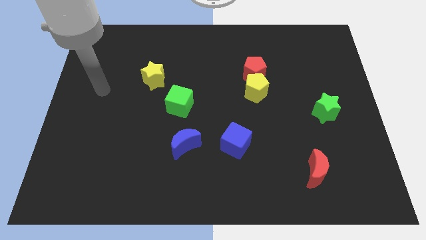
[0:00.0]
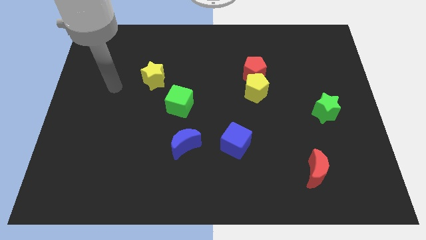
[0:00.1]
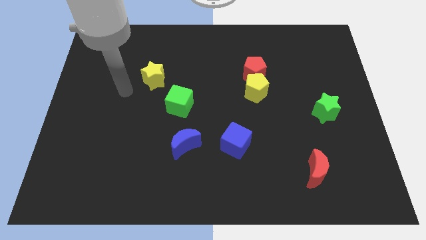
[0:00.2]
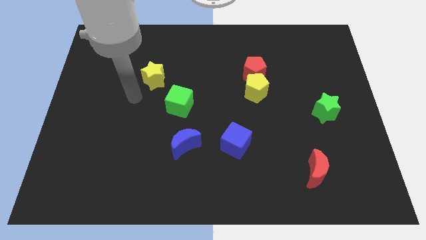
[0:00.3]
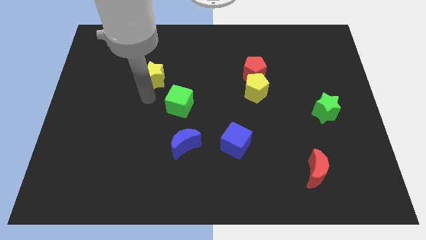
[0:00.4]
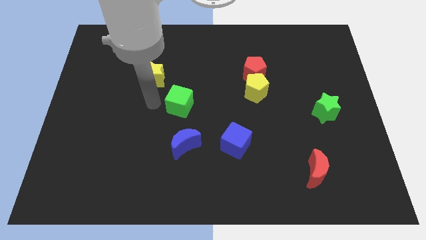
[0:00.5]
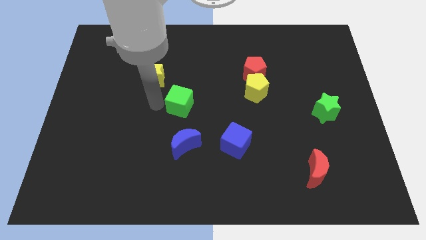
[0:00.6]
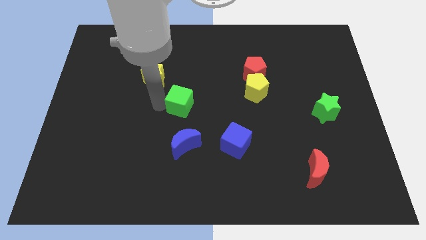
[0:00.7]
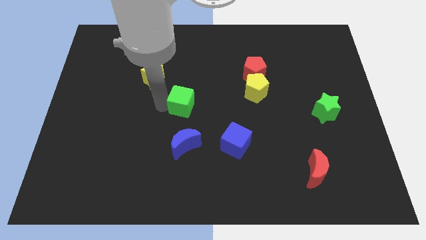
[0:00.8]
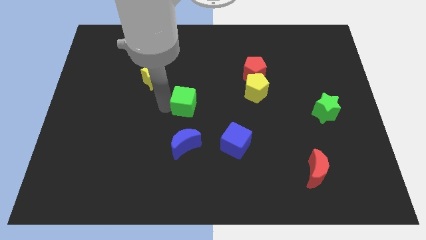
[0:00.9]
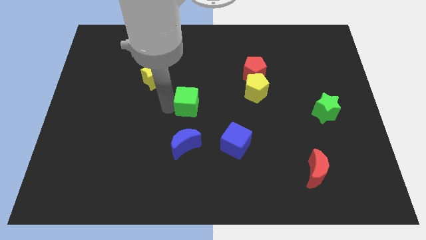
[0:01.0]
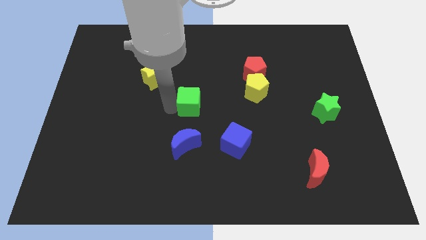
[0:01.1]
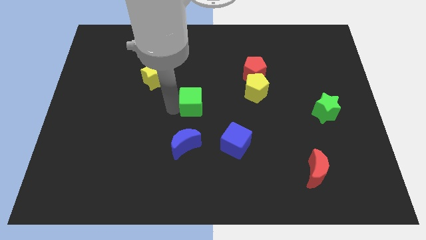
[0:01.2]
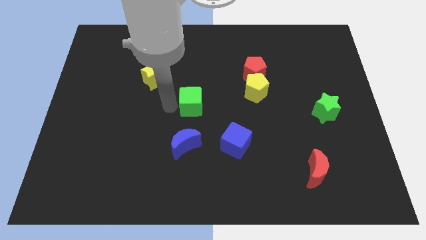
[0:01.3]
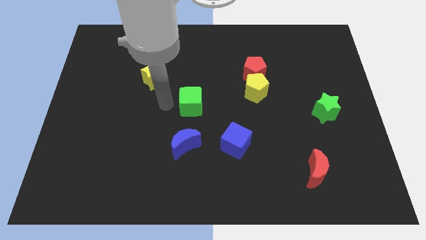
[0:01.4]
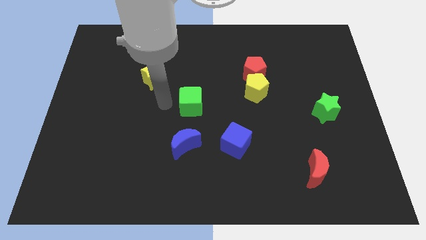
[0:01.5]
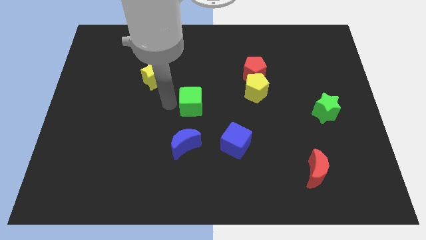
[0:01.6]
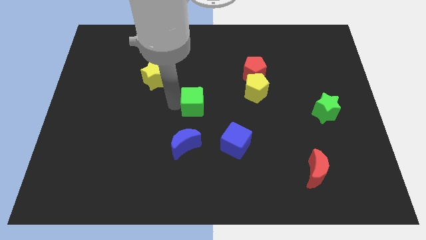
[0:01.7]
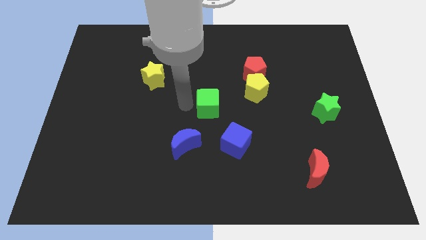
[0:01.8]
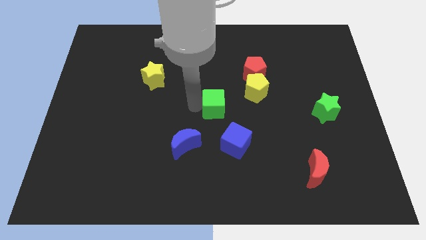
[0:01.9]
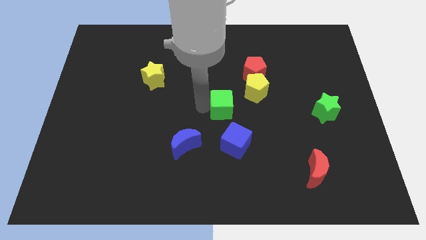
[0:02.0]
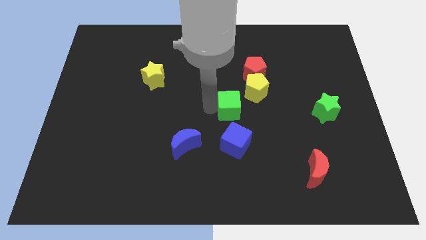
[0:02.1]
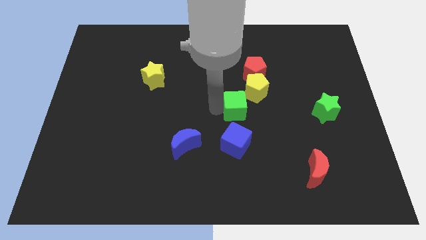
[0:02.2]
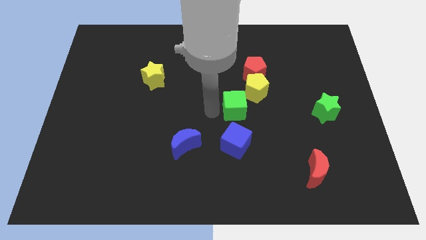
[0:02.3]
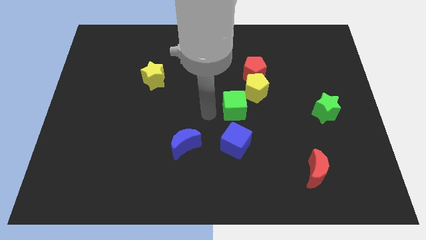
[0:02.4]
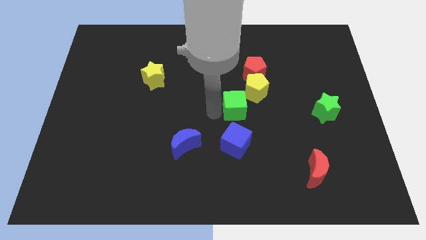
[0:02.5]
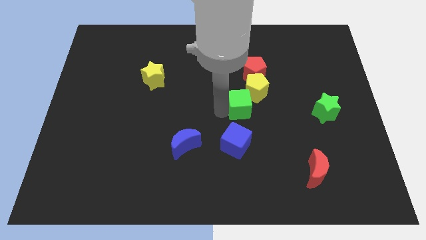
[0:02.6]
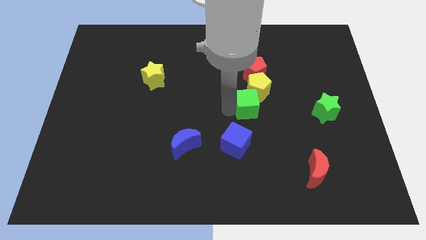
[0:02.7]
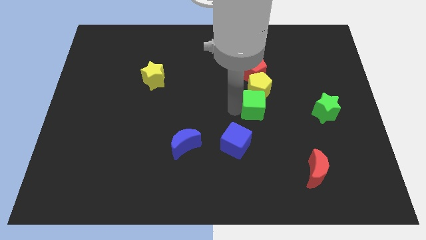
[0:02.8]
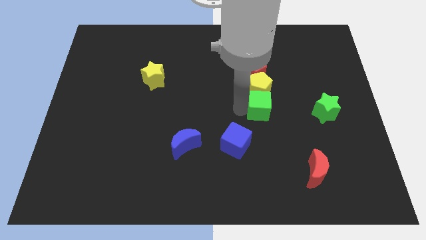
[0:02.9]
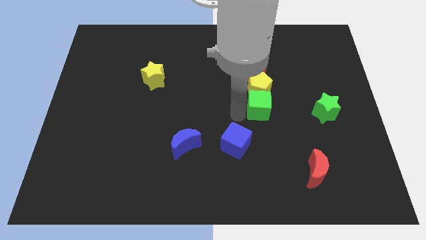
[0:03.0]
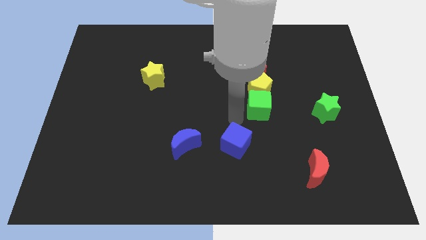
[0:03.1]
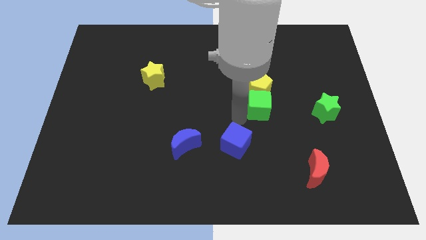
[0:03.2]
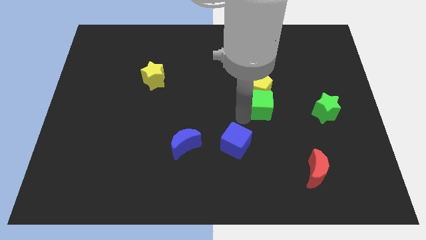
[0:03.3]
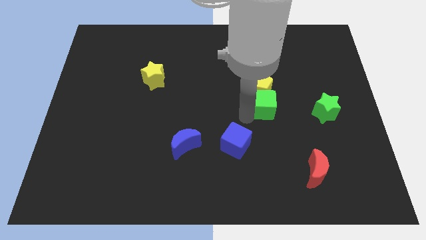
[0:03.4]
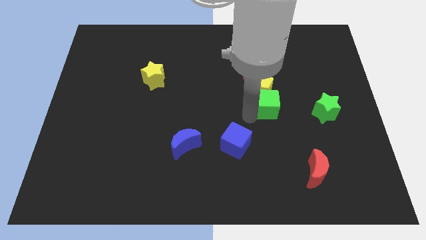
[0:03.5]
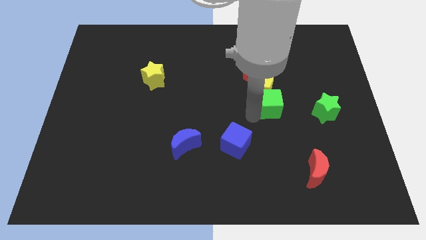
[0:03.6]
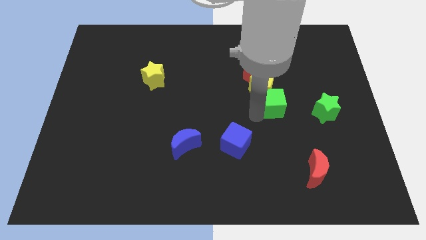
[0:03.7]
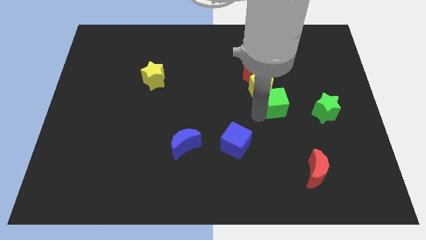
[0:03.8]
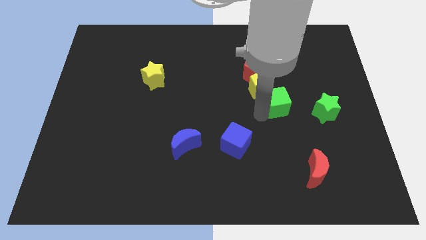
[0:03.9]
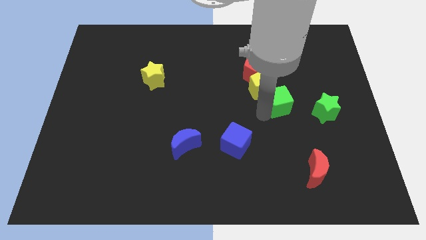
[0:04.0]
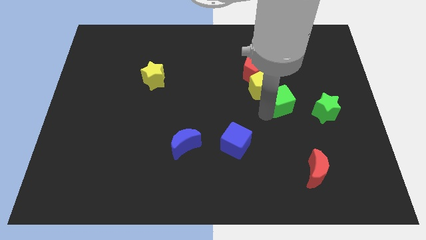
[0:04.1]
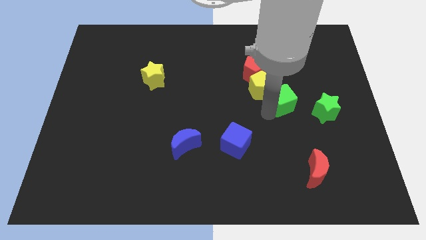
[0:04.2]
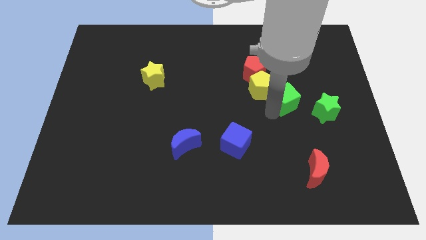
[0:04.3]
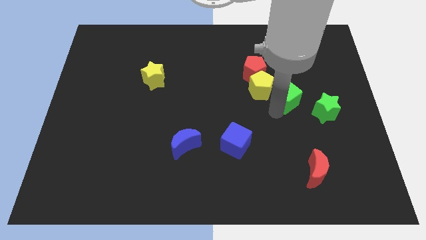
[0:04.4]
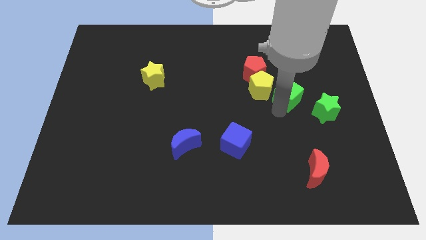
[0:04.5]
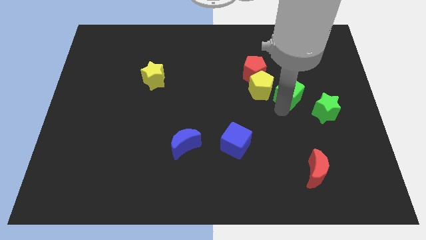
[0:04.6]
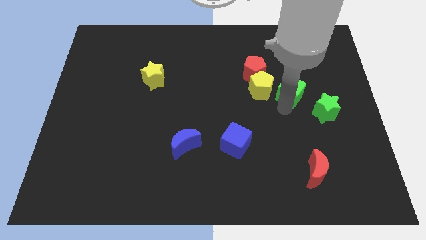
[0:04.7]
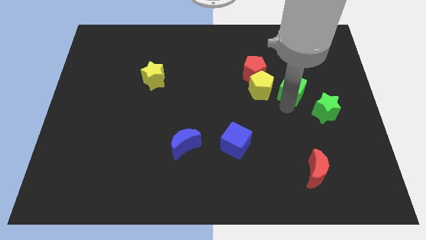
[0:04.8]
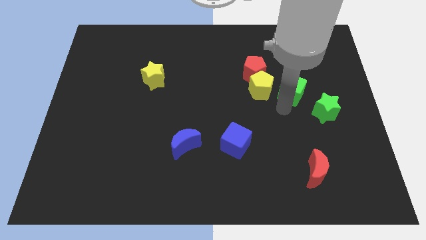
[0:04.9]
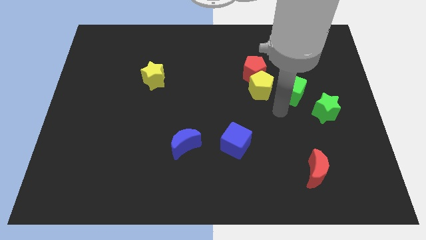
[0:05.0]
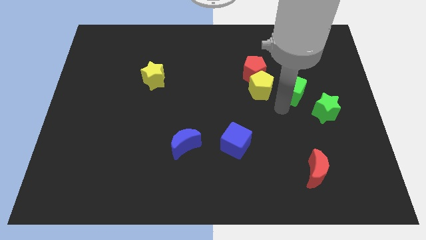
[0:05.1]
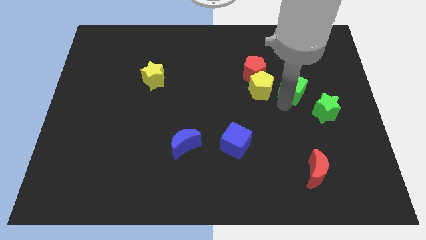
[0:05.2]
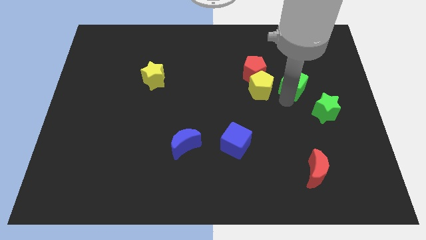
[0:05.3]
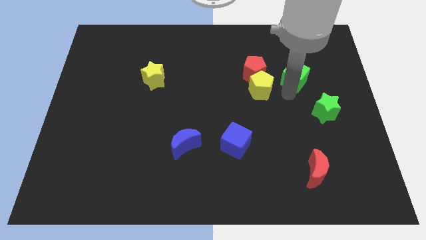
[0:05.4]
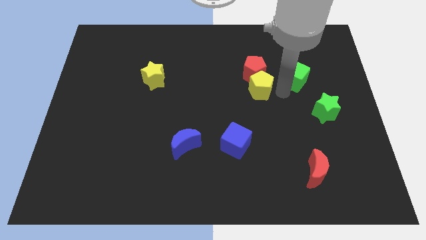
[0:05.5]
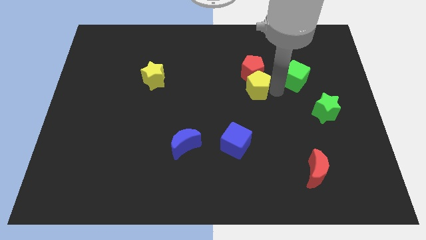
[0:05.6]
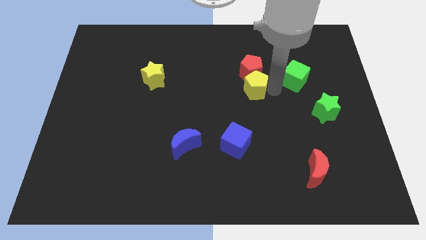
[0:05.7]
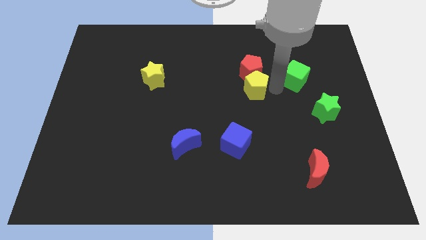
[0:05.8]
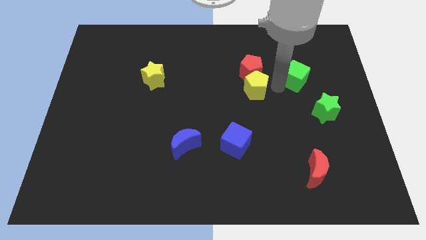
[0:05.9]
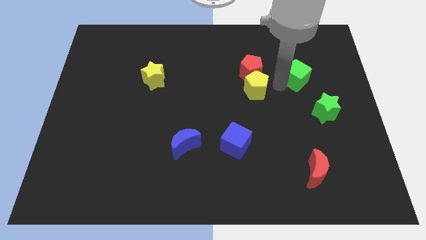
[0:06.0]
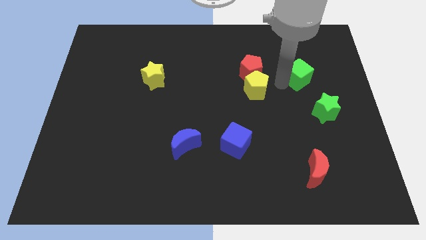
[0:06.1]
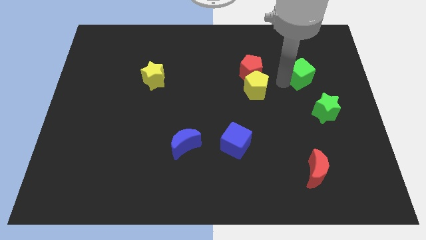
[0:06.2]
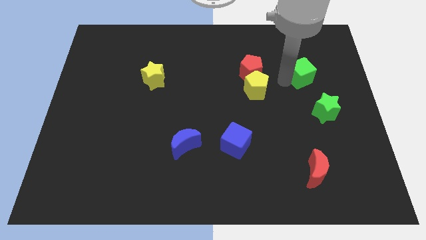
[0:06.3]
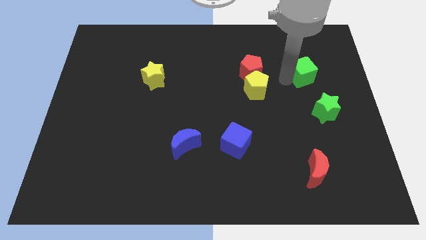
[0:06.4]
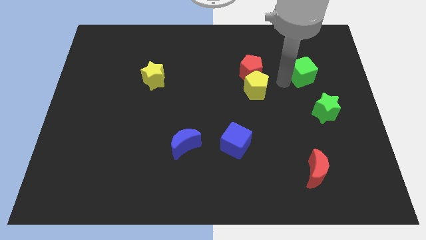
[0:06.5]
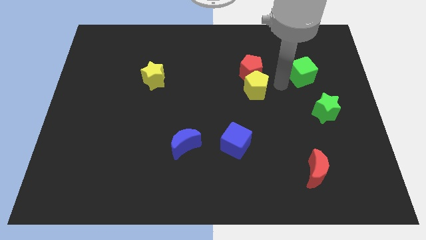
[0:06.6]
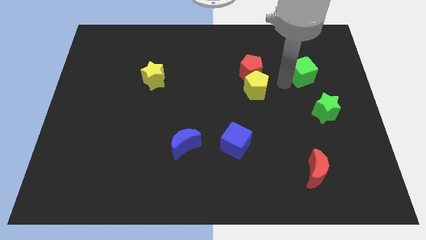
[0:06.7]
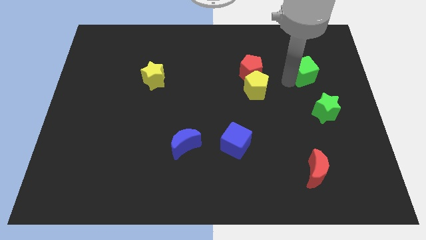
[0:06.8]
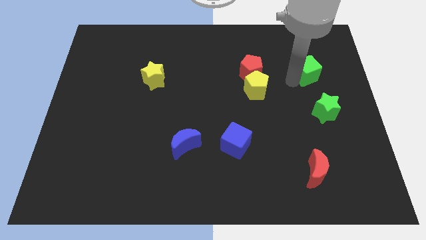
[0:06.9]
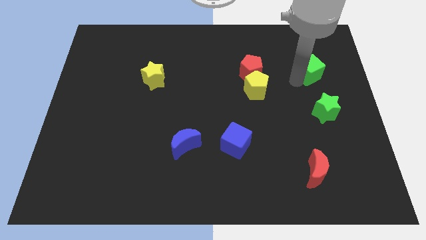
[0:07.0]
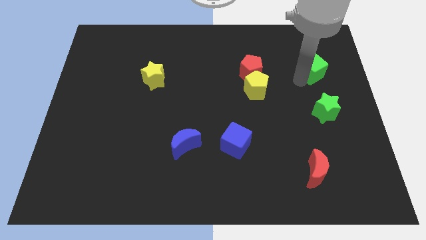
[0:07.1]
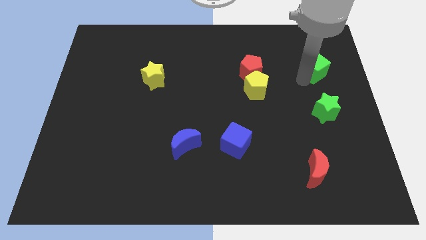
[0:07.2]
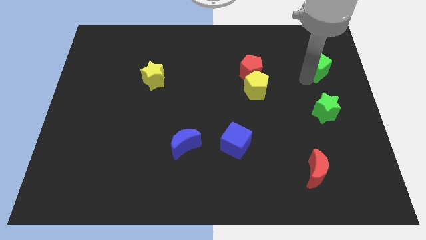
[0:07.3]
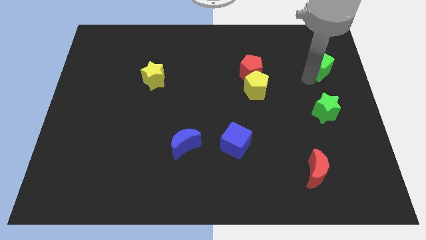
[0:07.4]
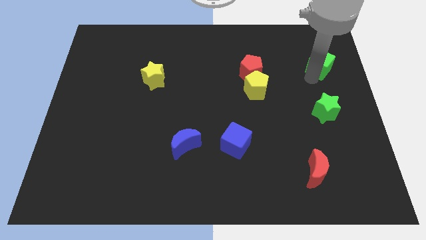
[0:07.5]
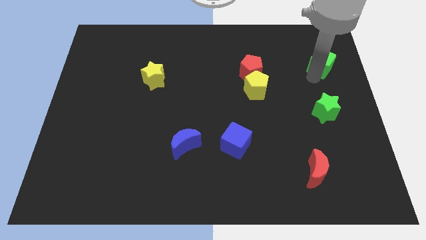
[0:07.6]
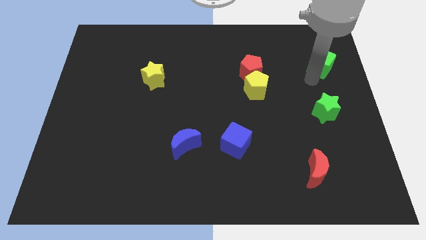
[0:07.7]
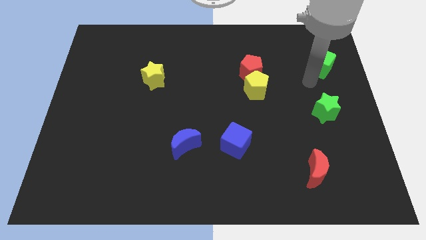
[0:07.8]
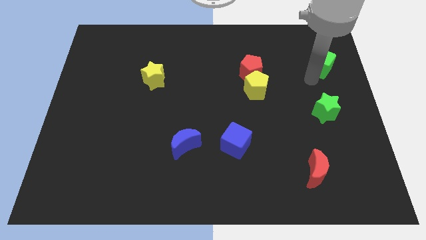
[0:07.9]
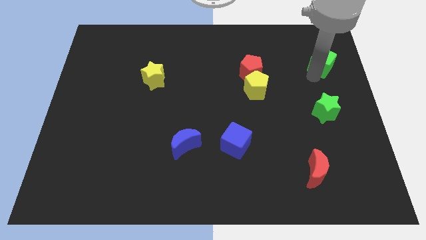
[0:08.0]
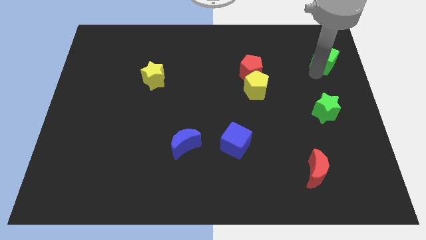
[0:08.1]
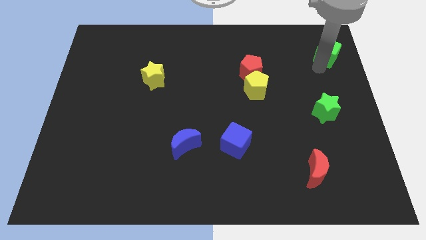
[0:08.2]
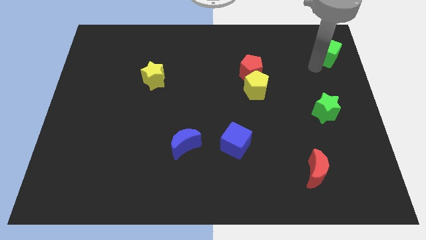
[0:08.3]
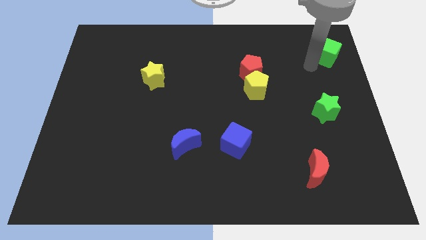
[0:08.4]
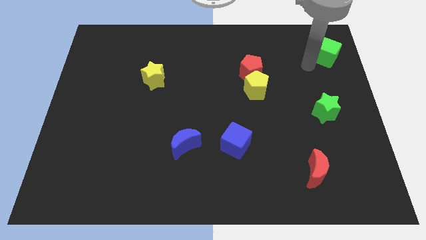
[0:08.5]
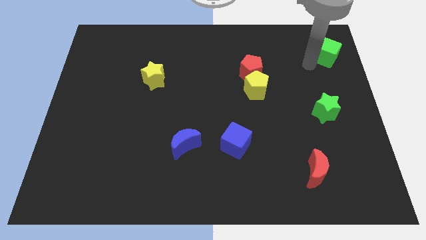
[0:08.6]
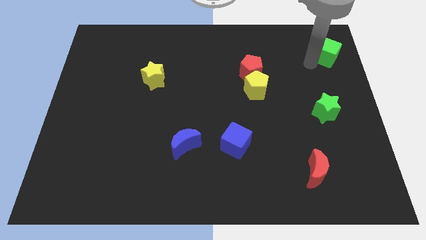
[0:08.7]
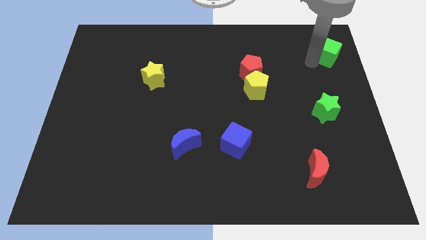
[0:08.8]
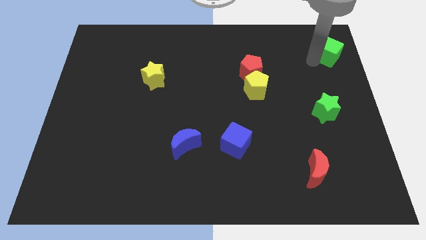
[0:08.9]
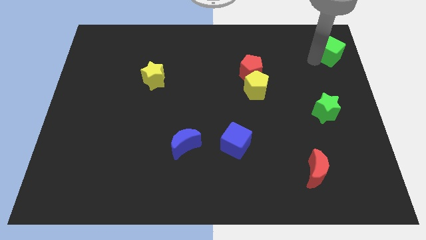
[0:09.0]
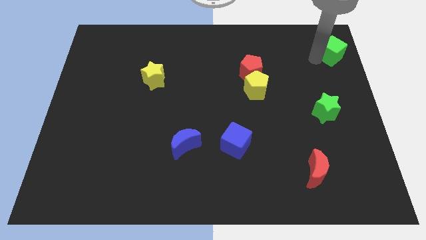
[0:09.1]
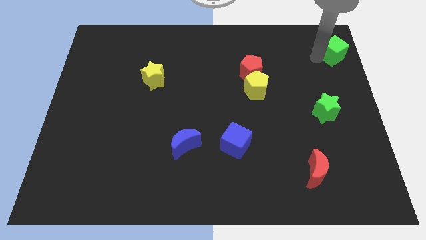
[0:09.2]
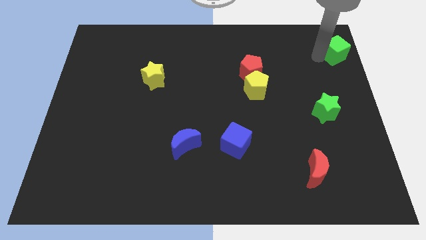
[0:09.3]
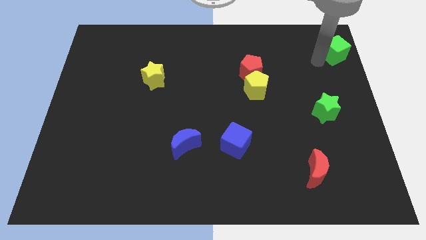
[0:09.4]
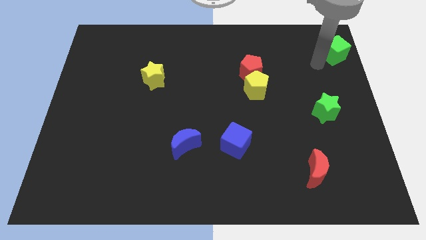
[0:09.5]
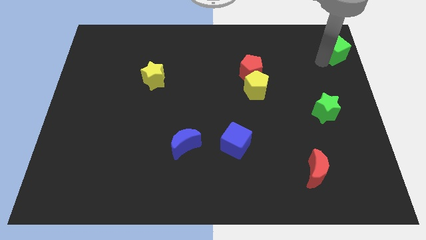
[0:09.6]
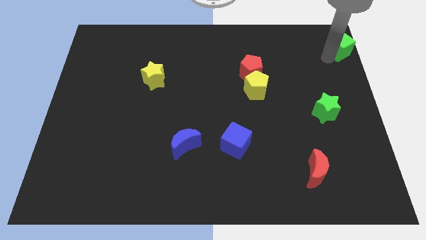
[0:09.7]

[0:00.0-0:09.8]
push the green cube to the top right corner
